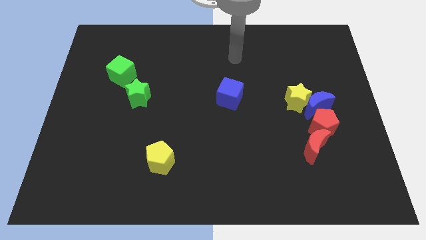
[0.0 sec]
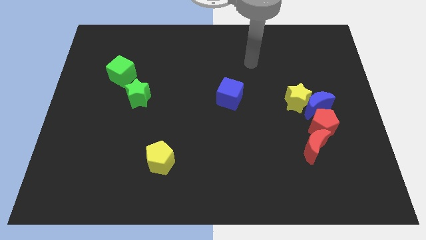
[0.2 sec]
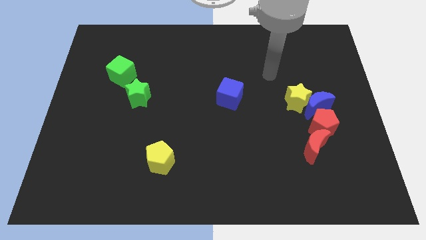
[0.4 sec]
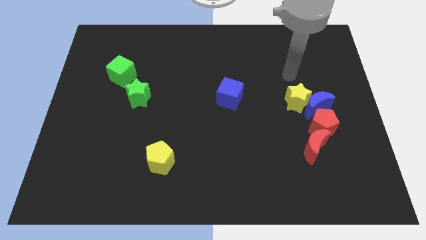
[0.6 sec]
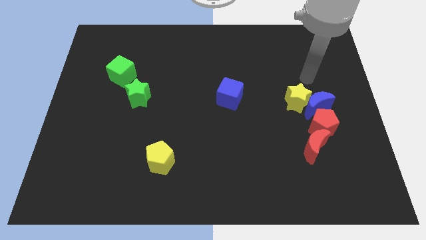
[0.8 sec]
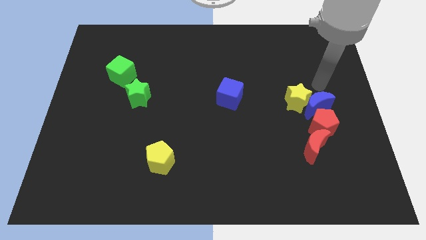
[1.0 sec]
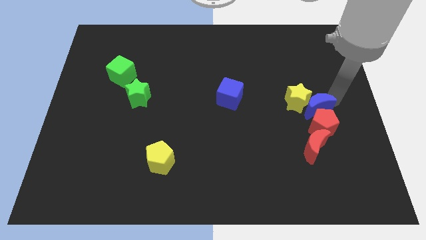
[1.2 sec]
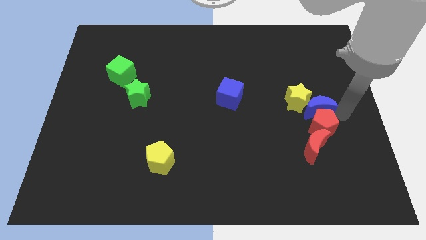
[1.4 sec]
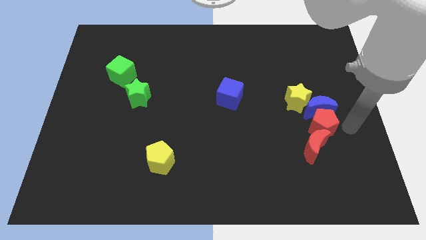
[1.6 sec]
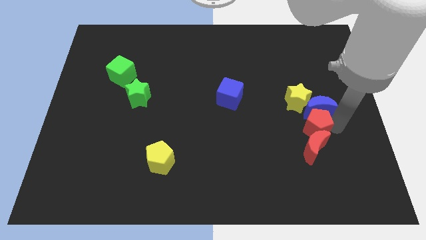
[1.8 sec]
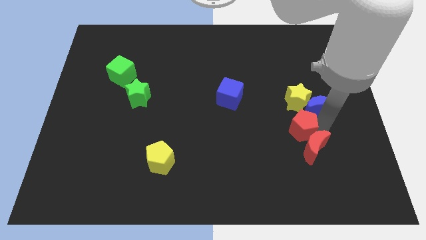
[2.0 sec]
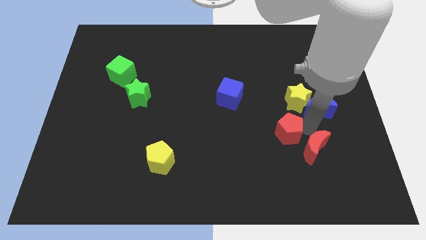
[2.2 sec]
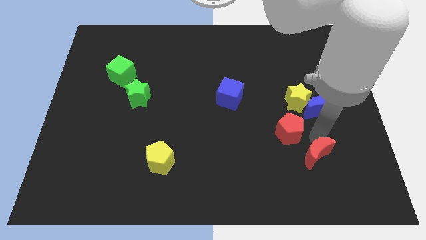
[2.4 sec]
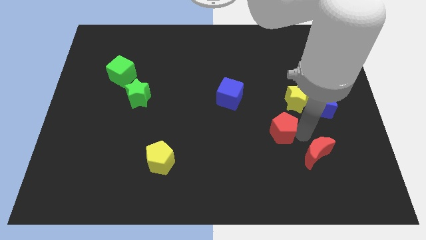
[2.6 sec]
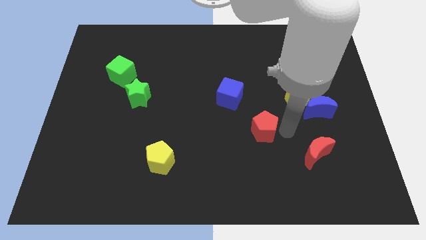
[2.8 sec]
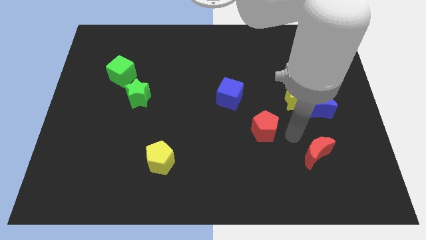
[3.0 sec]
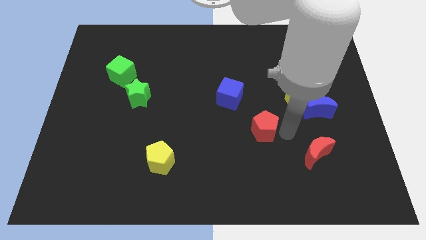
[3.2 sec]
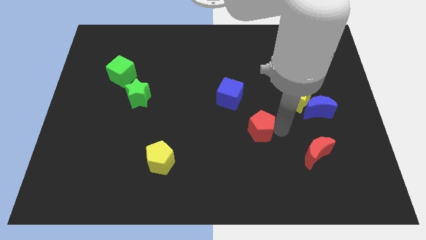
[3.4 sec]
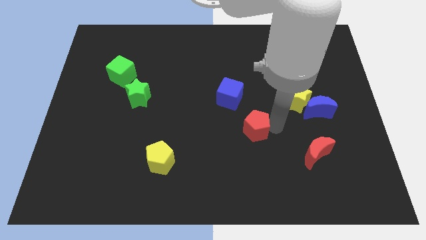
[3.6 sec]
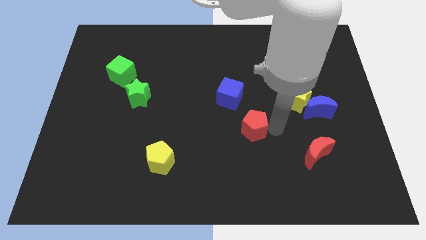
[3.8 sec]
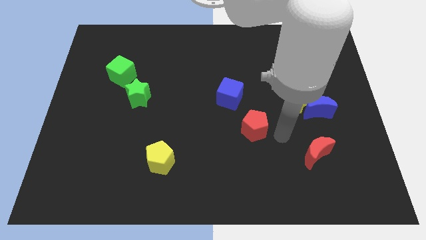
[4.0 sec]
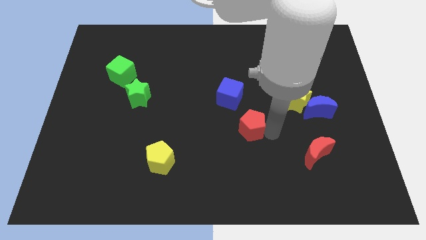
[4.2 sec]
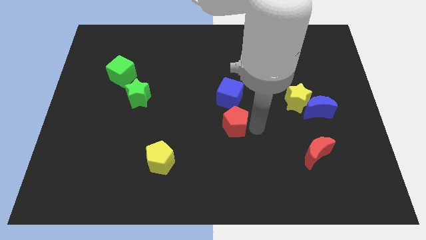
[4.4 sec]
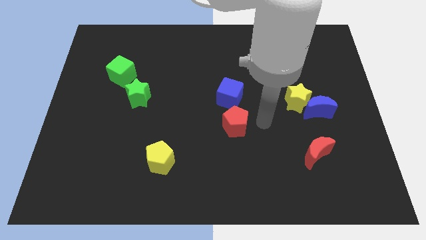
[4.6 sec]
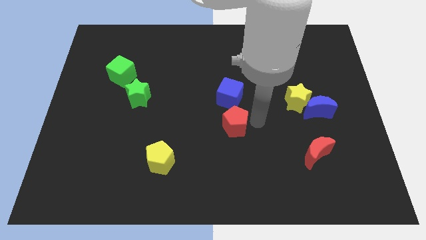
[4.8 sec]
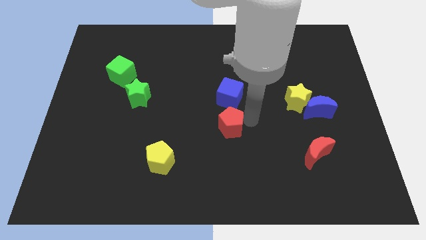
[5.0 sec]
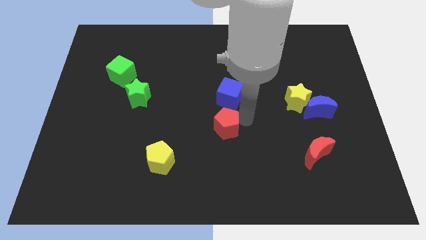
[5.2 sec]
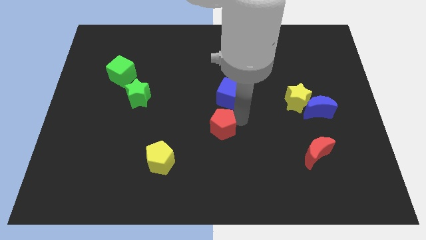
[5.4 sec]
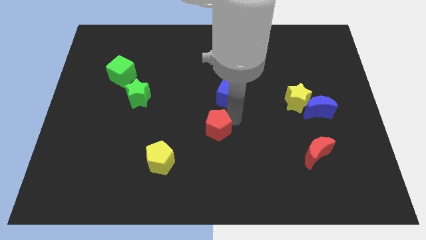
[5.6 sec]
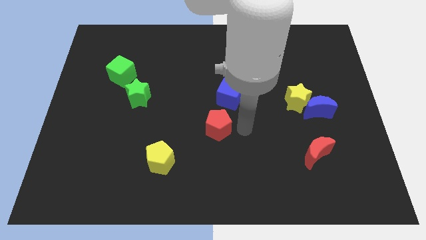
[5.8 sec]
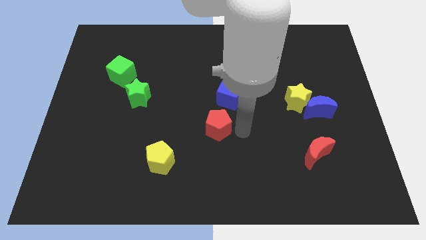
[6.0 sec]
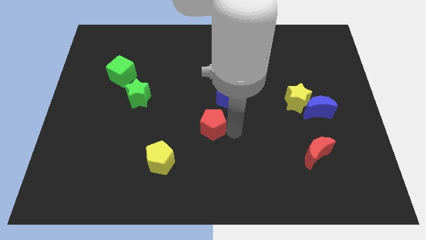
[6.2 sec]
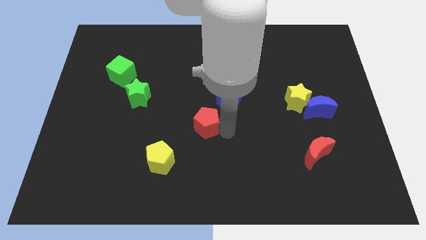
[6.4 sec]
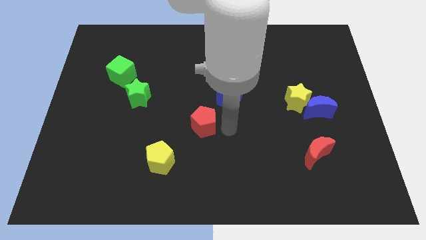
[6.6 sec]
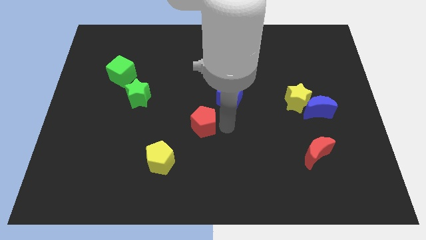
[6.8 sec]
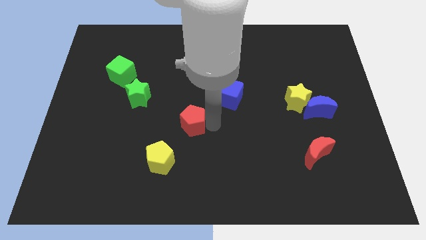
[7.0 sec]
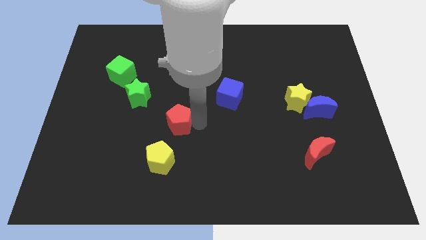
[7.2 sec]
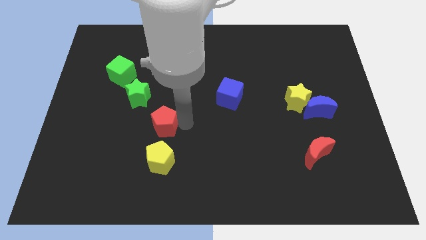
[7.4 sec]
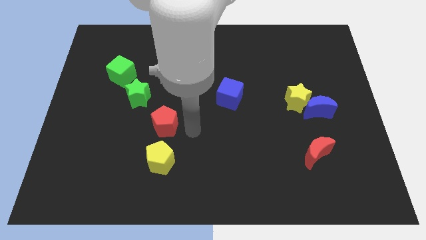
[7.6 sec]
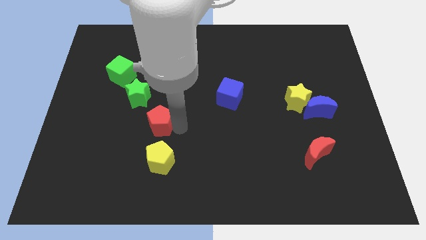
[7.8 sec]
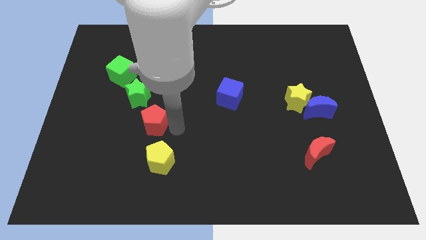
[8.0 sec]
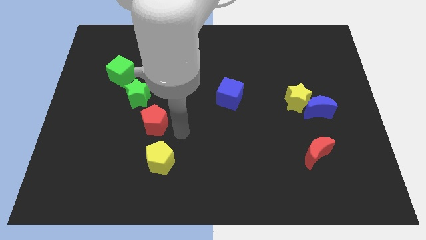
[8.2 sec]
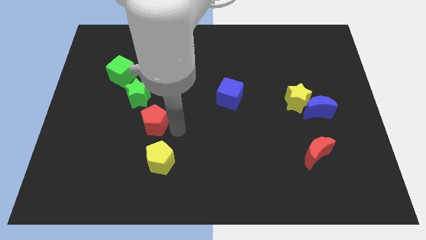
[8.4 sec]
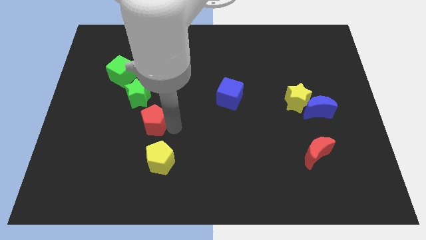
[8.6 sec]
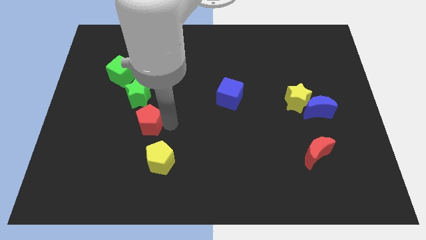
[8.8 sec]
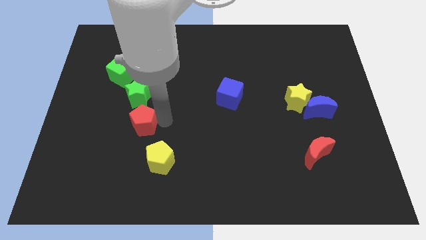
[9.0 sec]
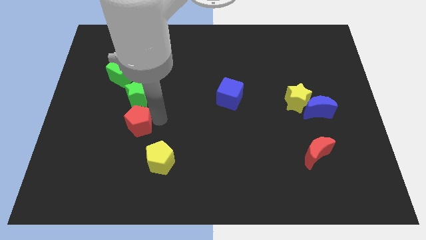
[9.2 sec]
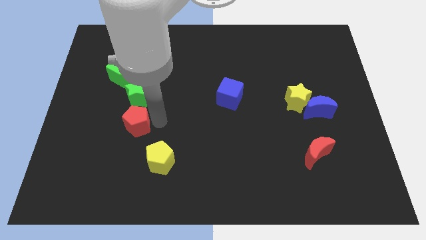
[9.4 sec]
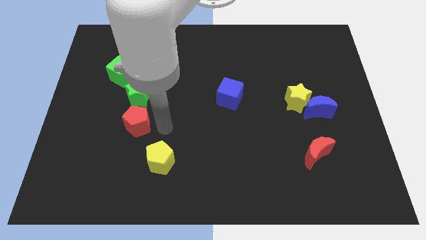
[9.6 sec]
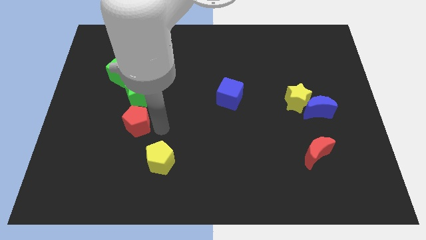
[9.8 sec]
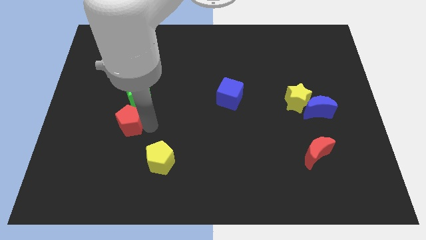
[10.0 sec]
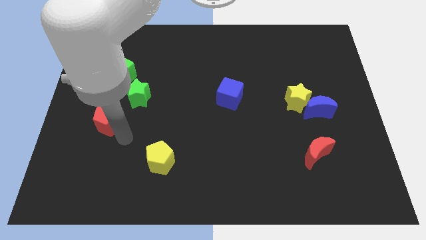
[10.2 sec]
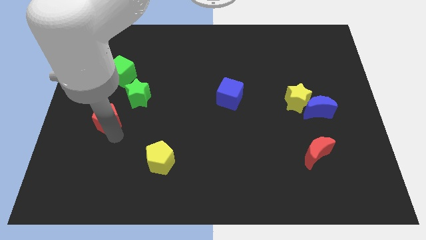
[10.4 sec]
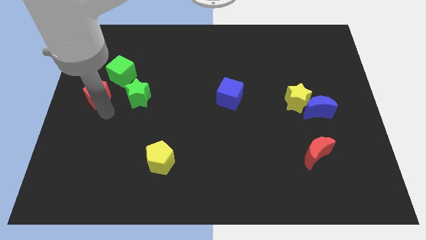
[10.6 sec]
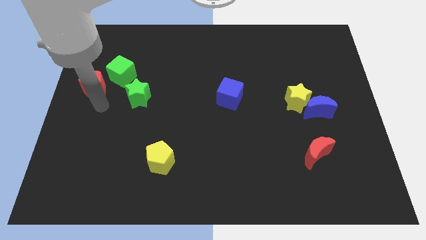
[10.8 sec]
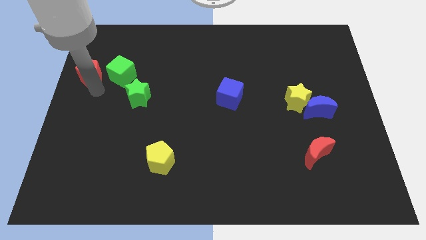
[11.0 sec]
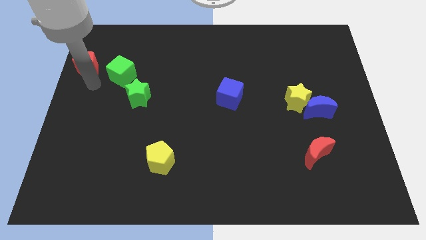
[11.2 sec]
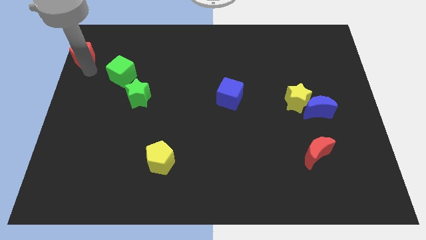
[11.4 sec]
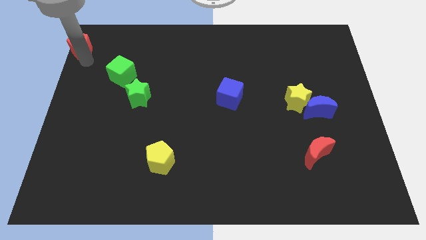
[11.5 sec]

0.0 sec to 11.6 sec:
slide the red pentagon to the top left corner

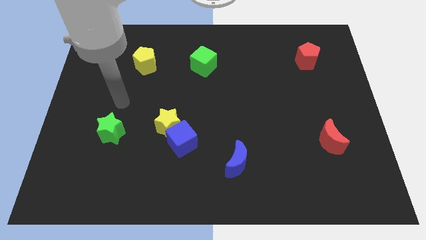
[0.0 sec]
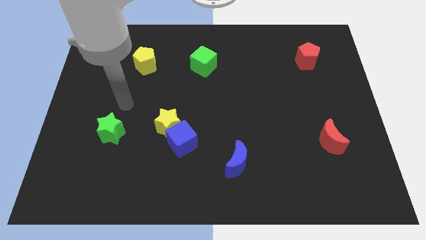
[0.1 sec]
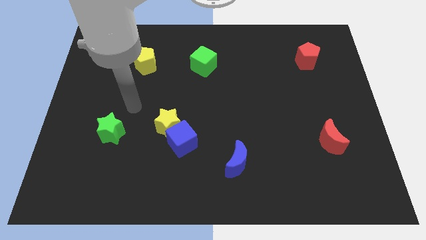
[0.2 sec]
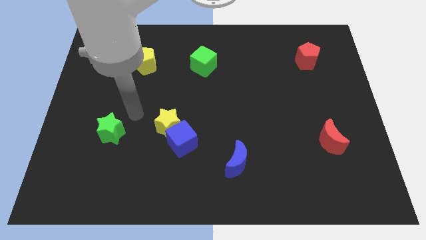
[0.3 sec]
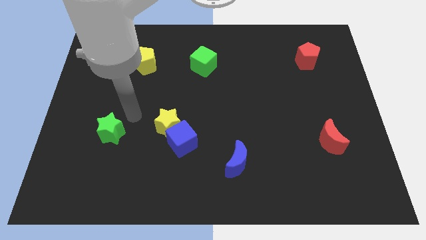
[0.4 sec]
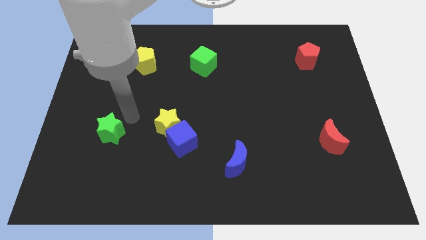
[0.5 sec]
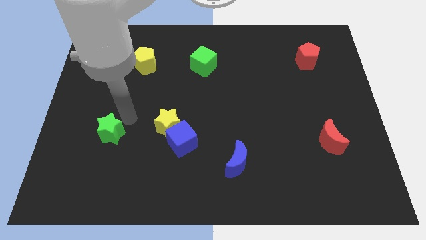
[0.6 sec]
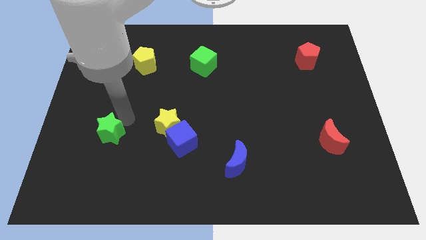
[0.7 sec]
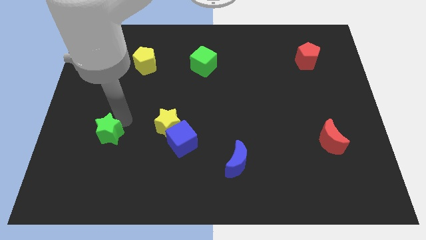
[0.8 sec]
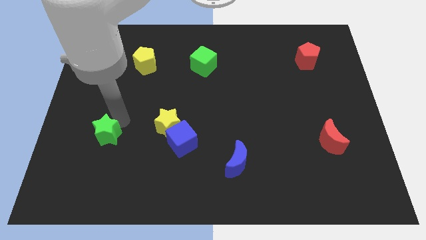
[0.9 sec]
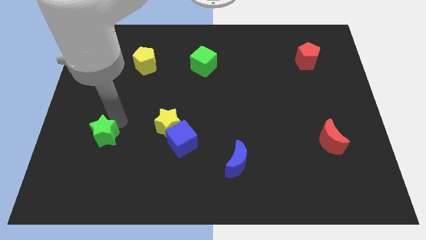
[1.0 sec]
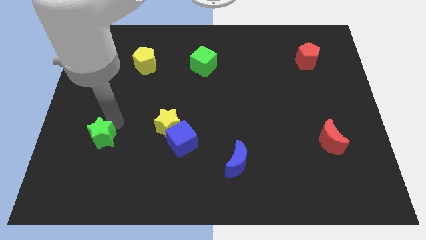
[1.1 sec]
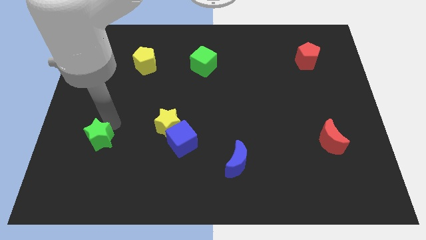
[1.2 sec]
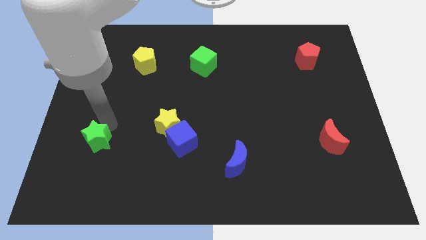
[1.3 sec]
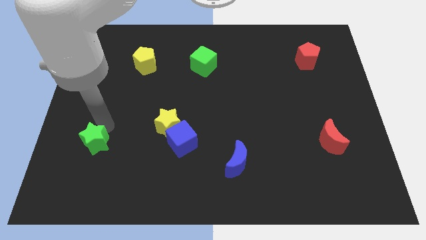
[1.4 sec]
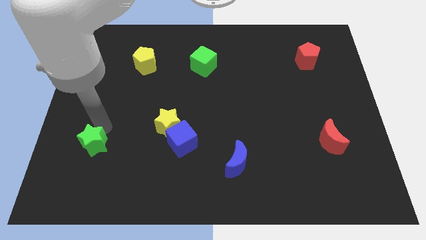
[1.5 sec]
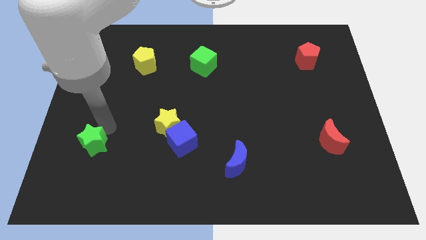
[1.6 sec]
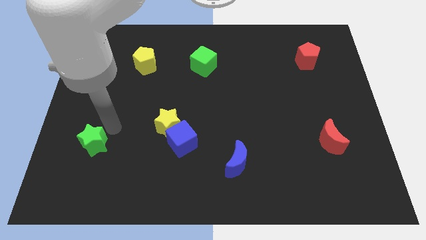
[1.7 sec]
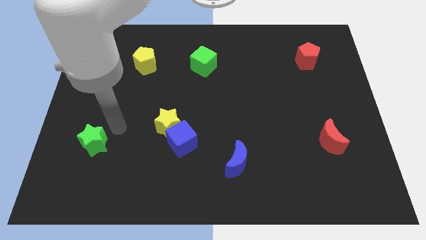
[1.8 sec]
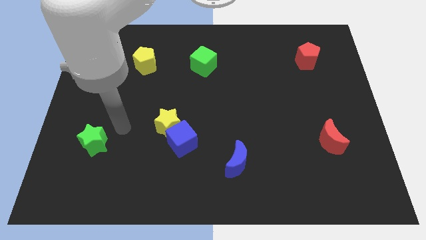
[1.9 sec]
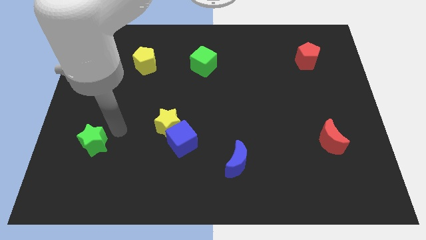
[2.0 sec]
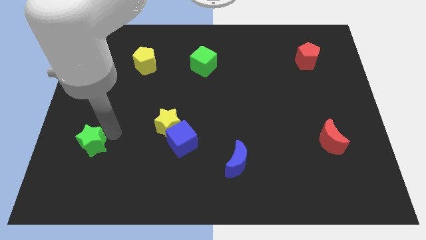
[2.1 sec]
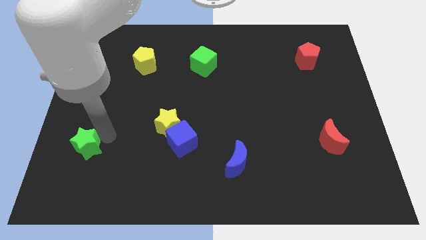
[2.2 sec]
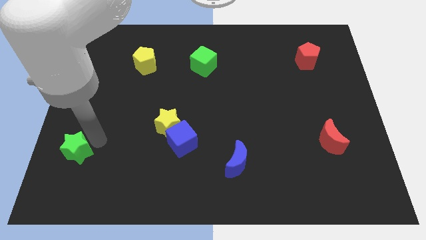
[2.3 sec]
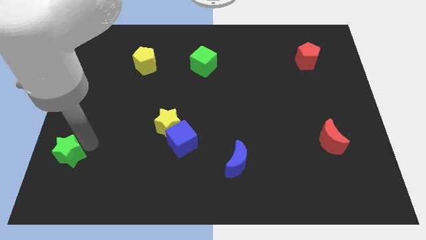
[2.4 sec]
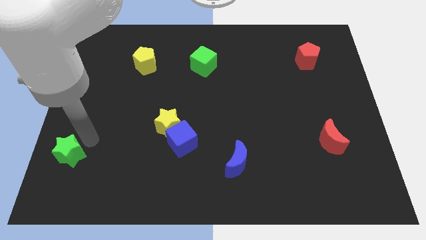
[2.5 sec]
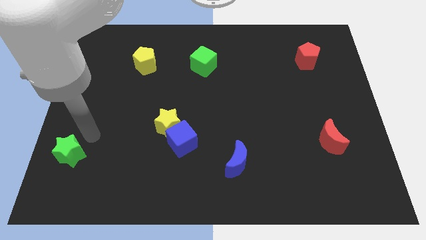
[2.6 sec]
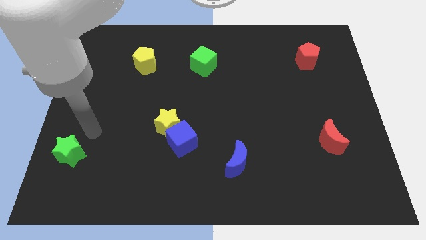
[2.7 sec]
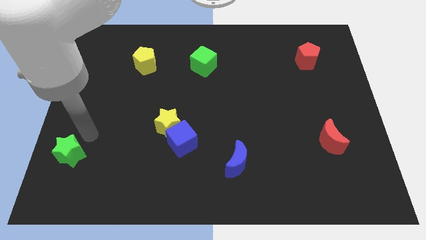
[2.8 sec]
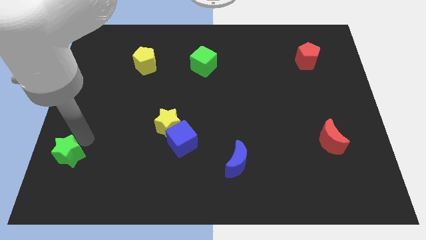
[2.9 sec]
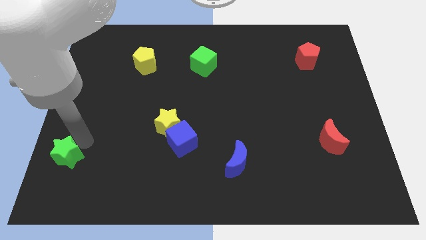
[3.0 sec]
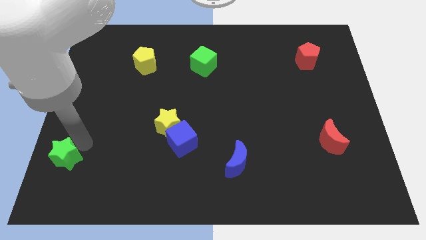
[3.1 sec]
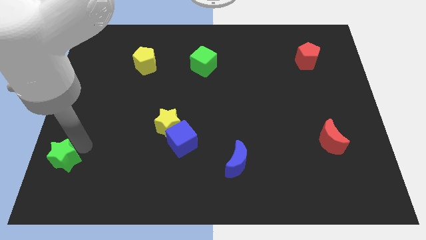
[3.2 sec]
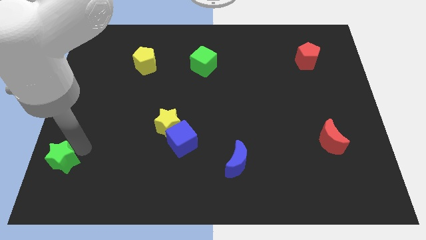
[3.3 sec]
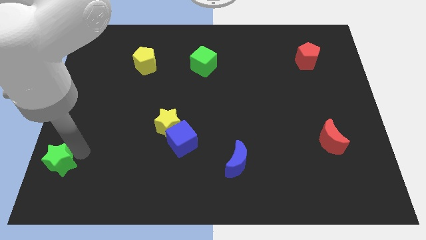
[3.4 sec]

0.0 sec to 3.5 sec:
move the green star to the bottom left of the board
